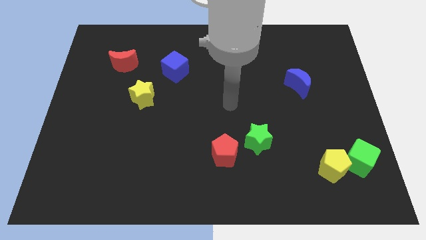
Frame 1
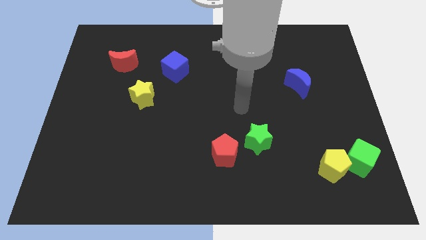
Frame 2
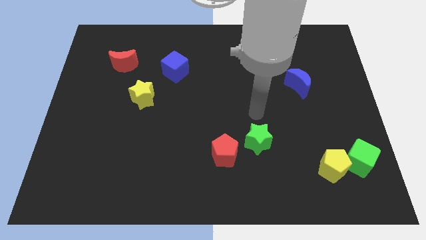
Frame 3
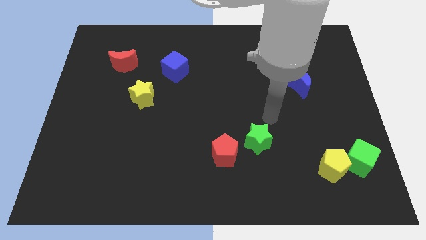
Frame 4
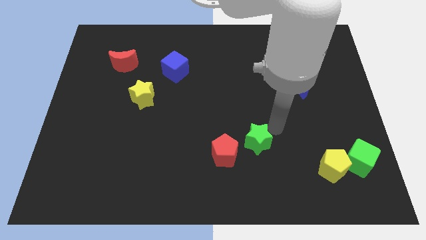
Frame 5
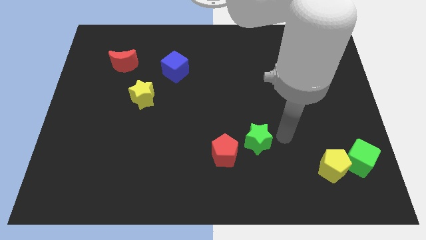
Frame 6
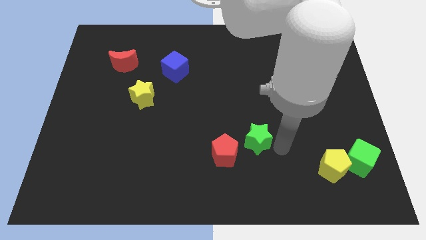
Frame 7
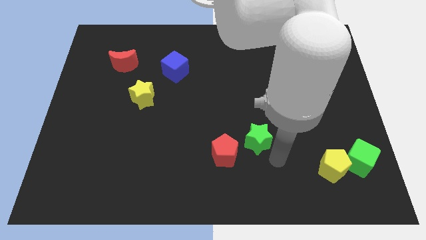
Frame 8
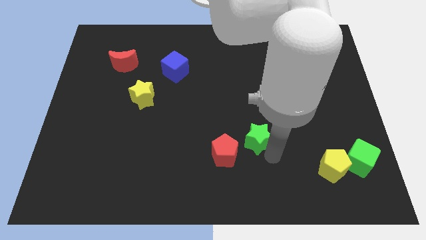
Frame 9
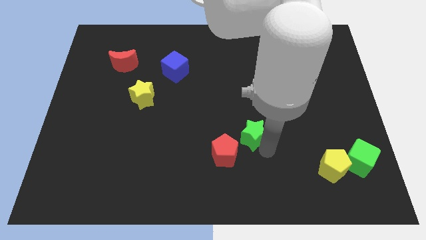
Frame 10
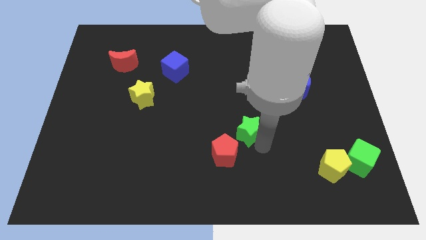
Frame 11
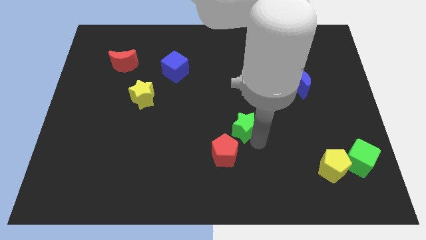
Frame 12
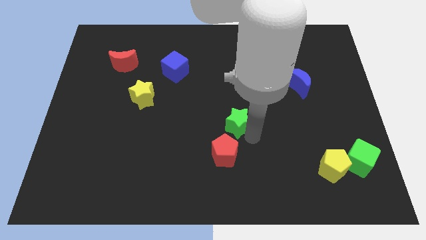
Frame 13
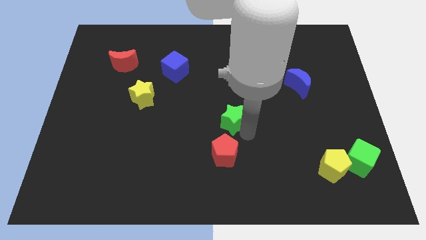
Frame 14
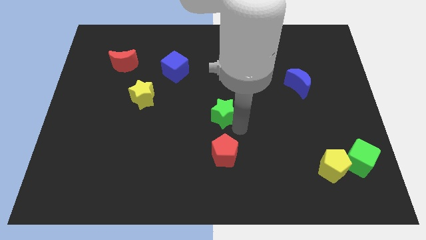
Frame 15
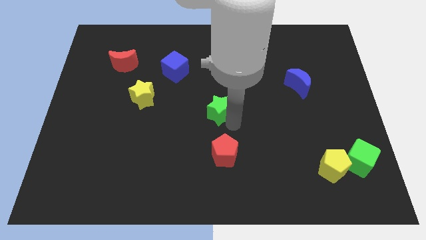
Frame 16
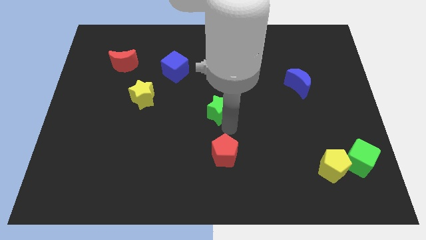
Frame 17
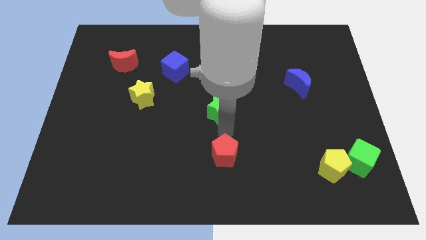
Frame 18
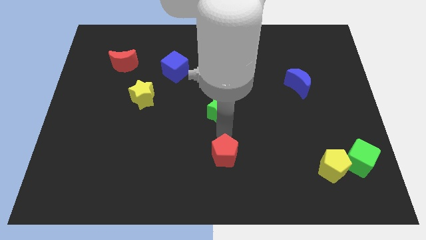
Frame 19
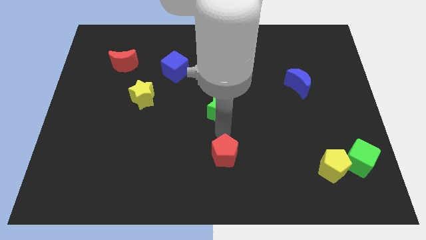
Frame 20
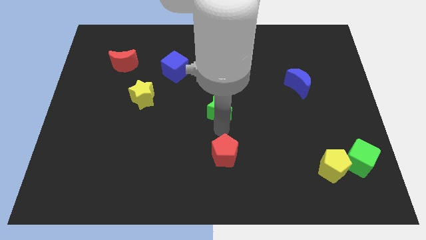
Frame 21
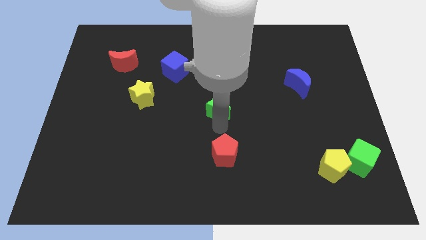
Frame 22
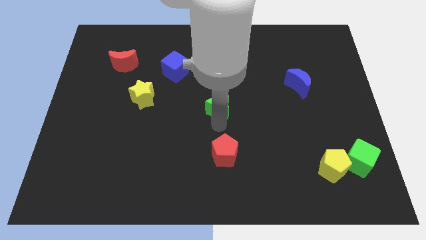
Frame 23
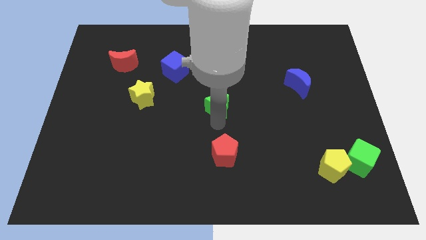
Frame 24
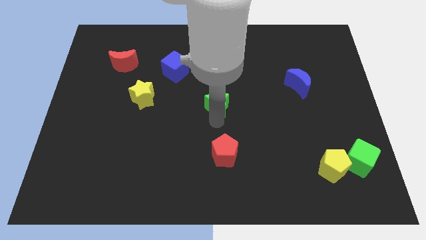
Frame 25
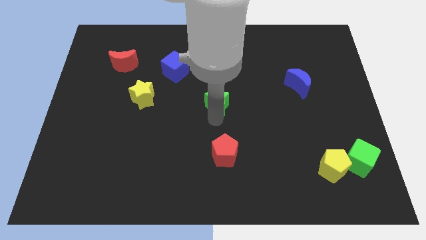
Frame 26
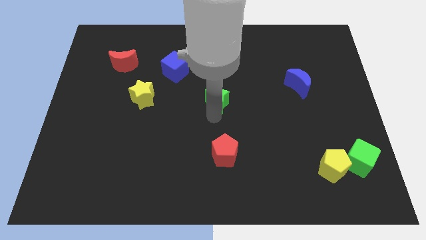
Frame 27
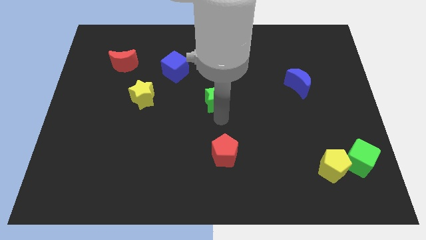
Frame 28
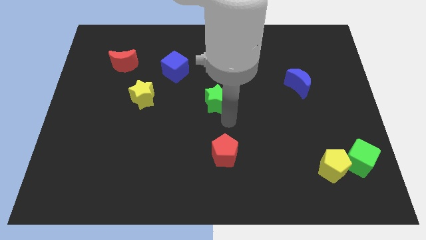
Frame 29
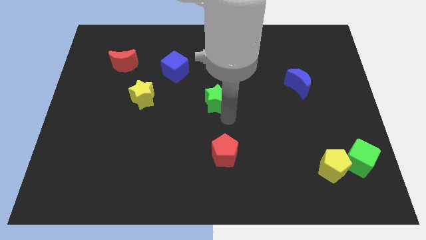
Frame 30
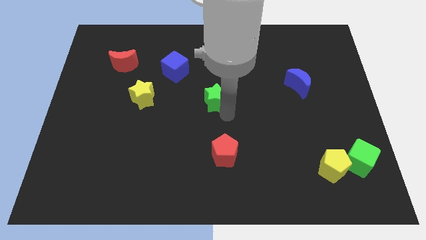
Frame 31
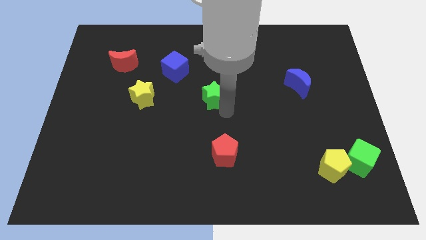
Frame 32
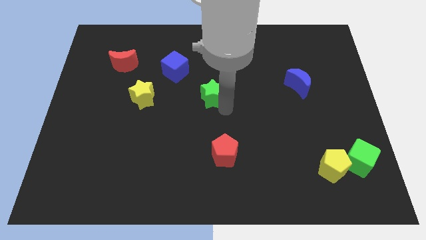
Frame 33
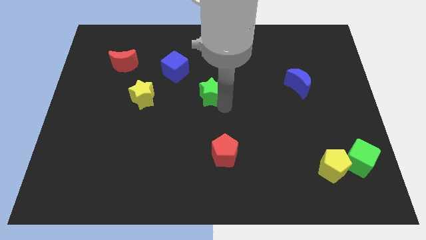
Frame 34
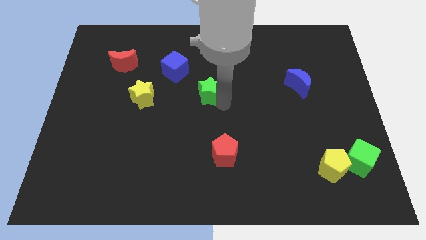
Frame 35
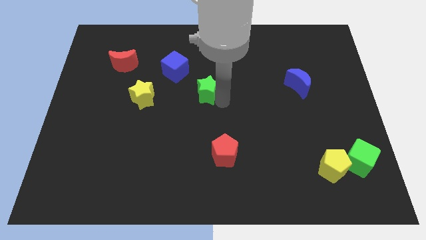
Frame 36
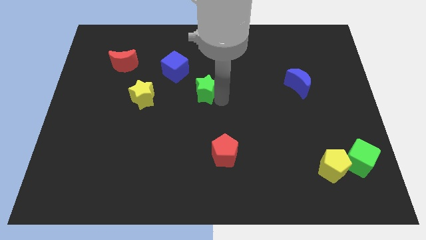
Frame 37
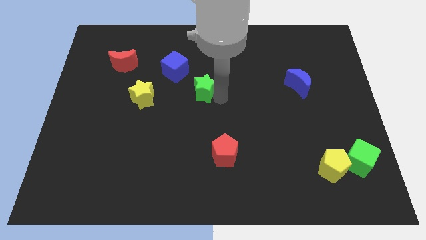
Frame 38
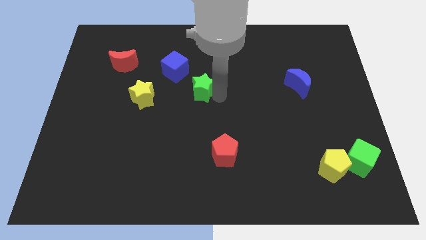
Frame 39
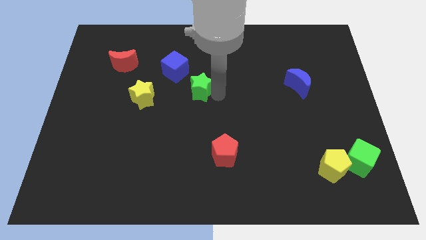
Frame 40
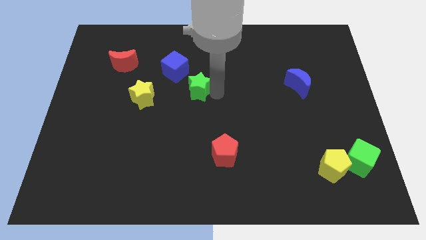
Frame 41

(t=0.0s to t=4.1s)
slide the green star diagonally upwards and left

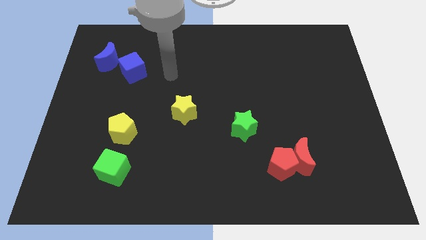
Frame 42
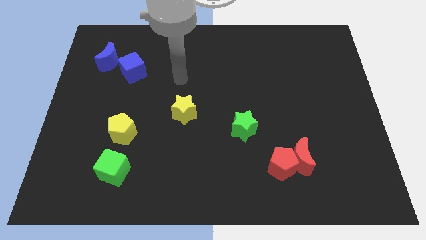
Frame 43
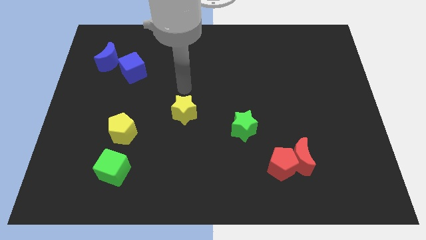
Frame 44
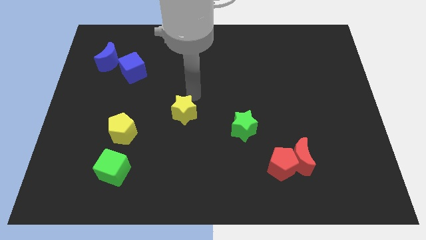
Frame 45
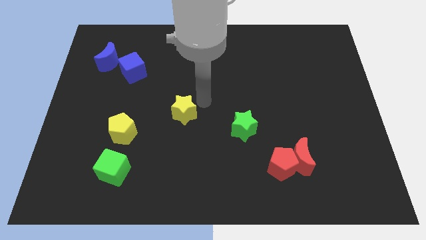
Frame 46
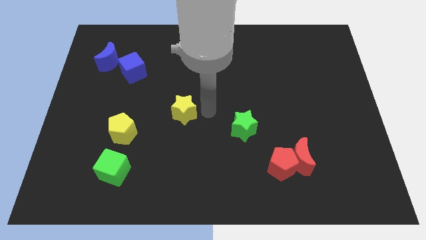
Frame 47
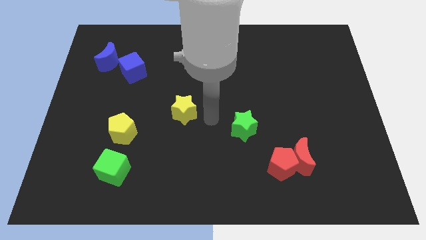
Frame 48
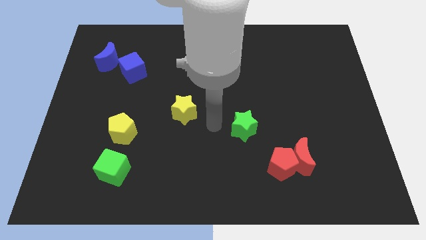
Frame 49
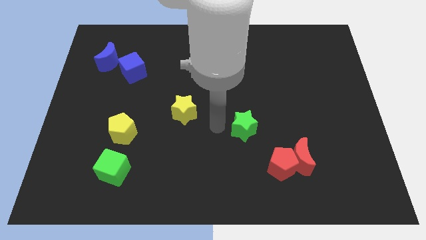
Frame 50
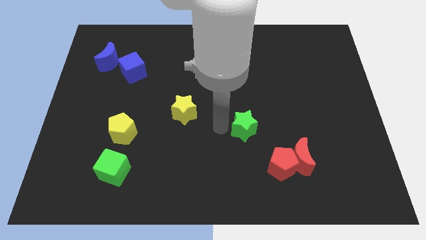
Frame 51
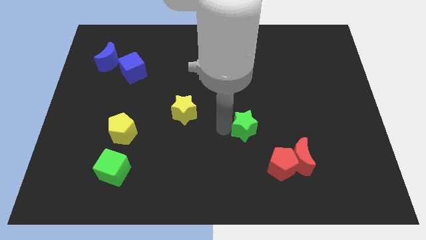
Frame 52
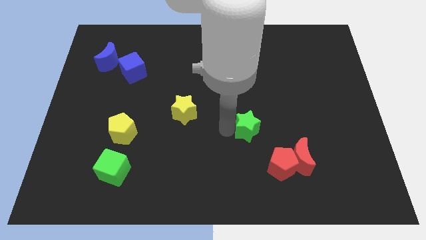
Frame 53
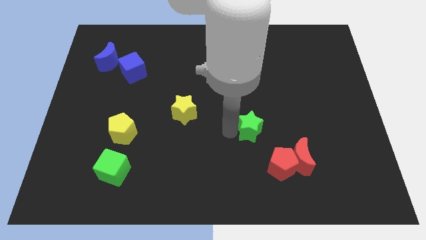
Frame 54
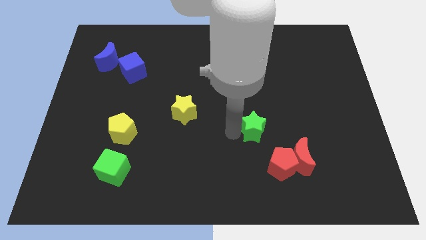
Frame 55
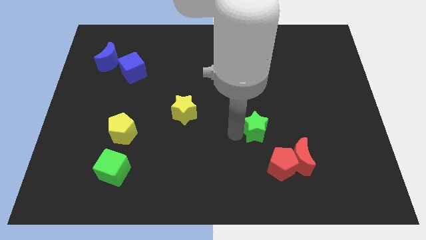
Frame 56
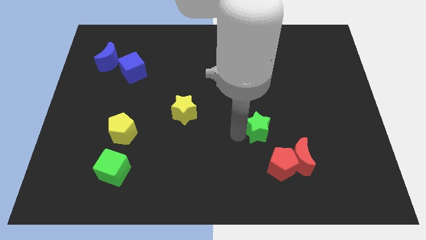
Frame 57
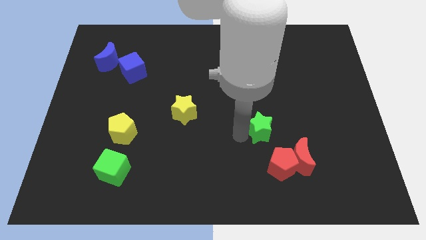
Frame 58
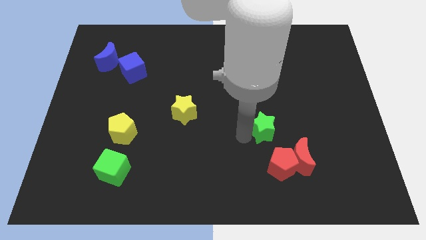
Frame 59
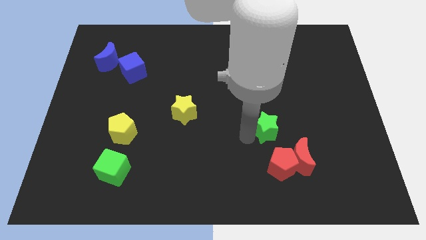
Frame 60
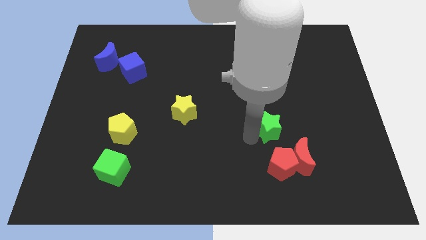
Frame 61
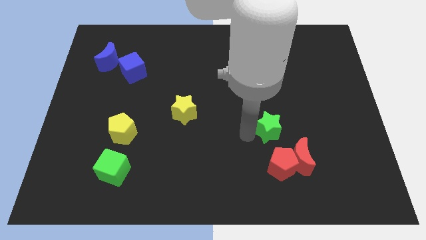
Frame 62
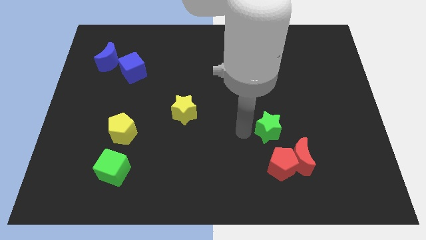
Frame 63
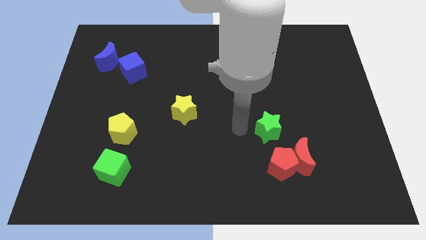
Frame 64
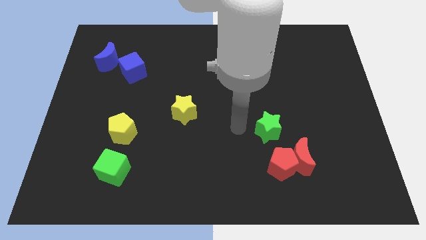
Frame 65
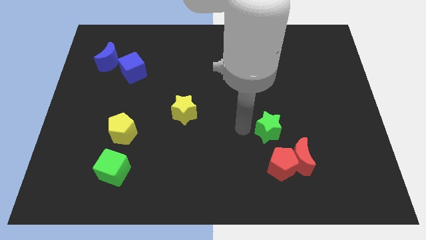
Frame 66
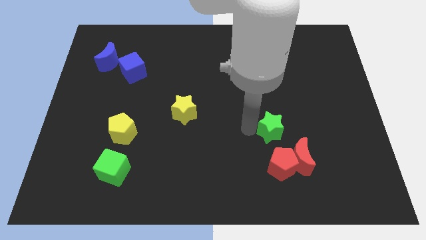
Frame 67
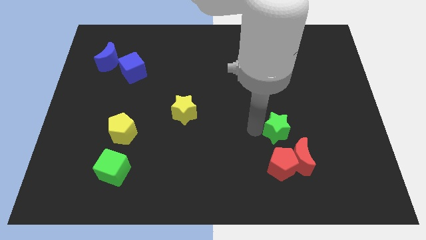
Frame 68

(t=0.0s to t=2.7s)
slide the green star a little bit right

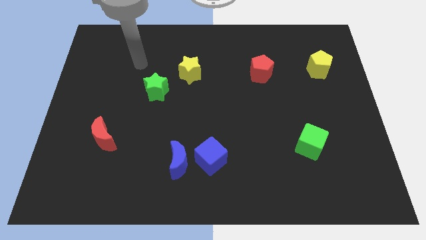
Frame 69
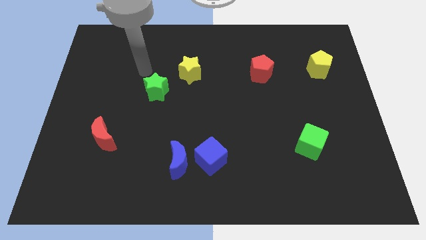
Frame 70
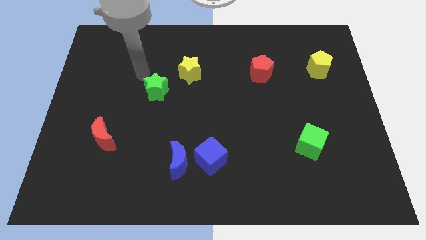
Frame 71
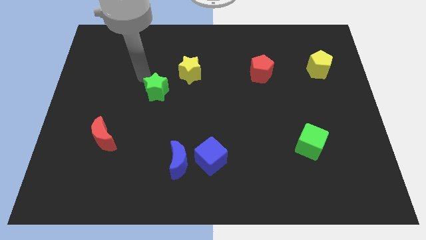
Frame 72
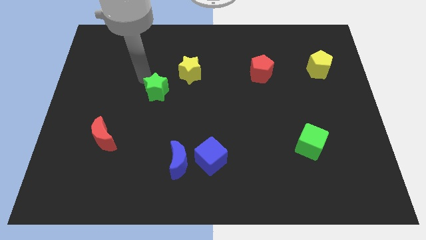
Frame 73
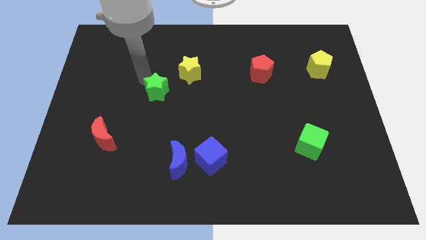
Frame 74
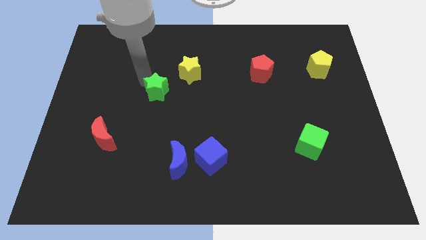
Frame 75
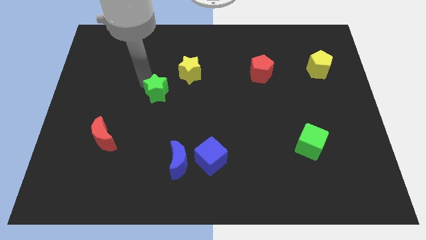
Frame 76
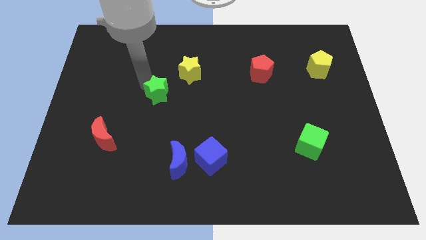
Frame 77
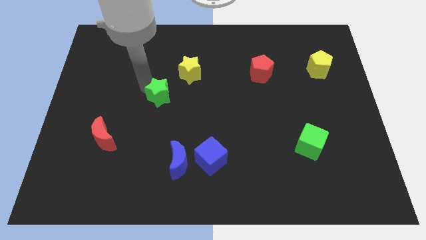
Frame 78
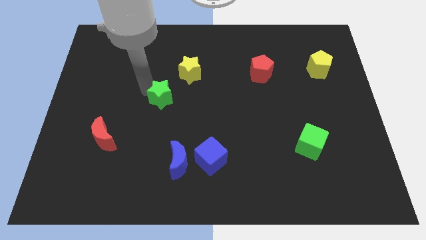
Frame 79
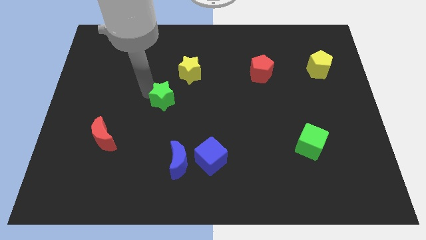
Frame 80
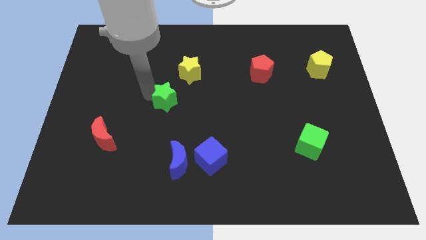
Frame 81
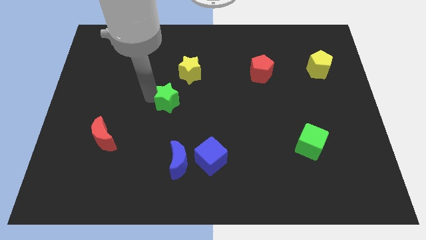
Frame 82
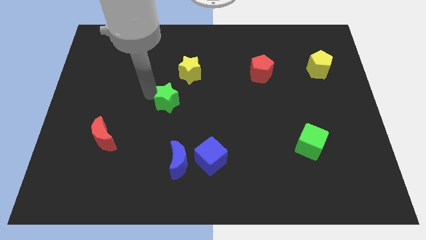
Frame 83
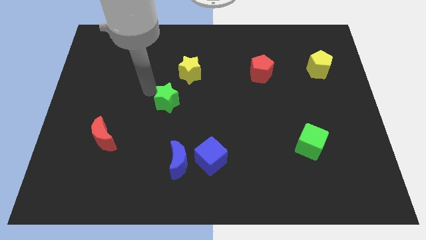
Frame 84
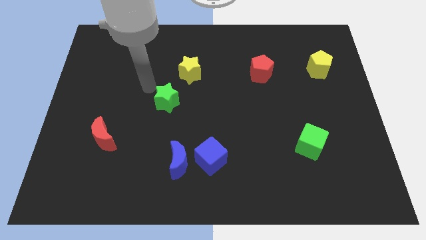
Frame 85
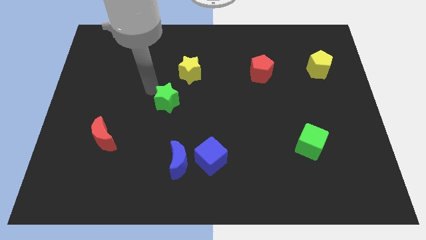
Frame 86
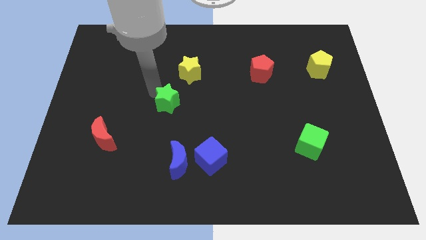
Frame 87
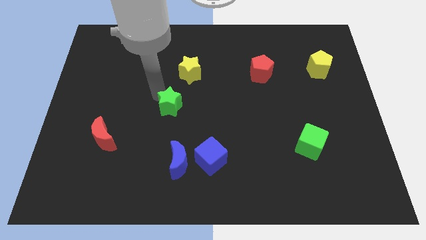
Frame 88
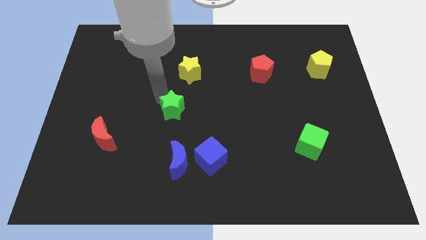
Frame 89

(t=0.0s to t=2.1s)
move the green star a little diagonally down and to the right
